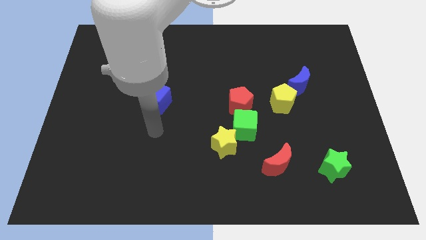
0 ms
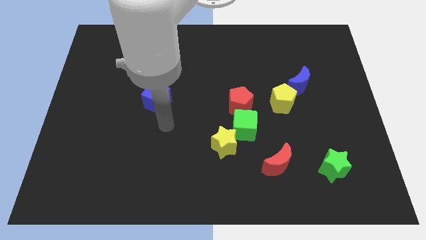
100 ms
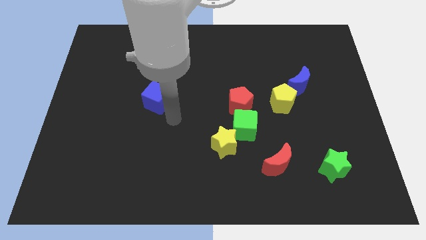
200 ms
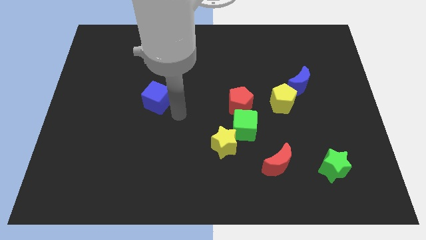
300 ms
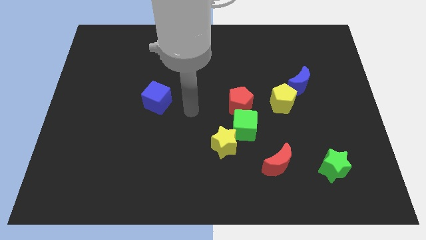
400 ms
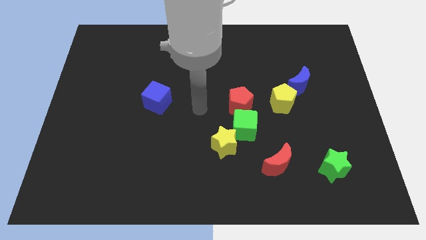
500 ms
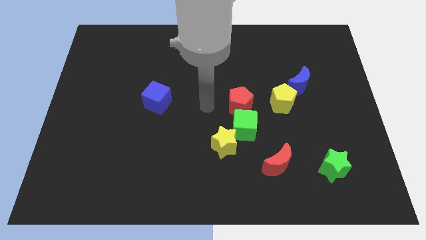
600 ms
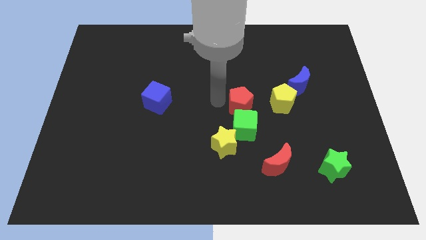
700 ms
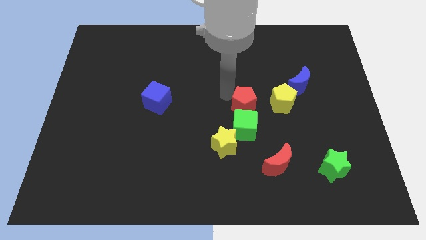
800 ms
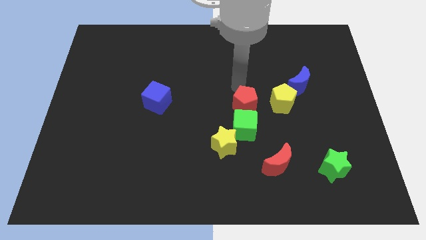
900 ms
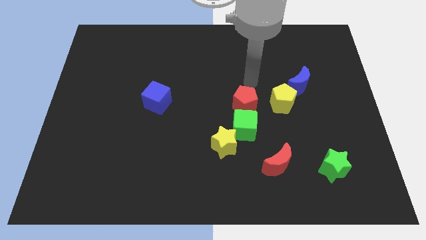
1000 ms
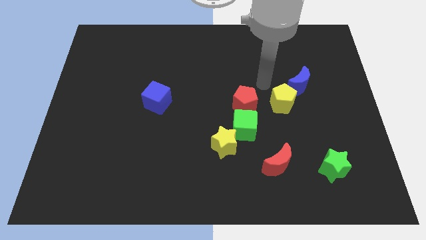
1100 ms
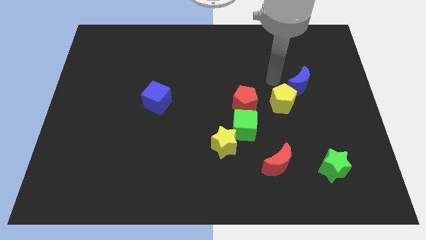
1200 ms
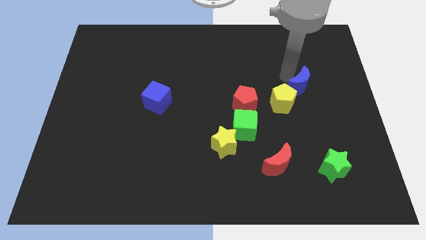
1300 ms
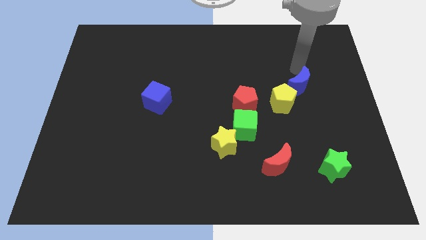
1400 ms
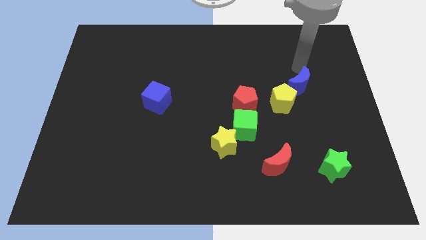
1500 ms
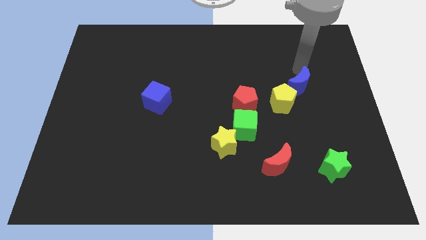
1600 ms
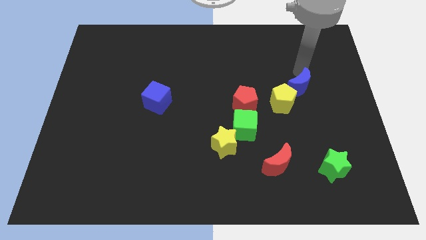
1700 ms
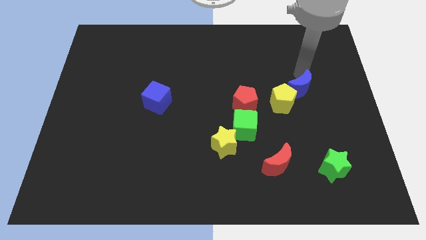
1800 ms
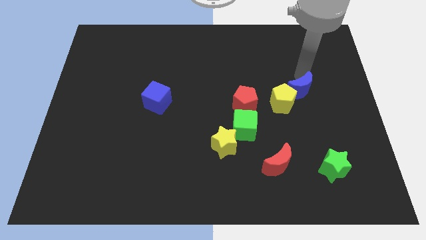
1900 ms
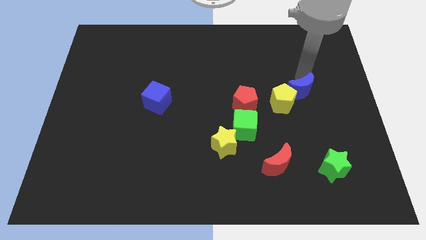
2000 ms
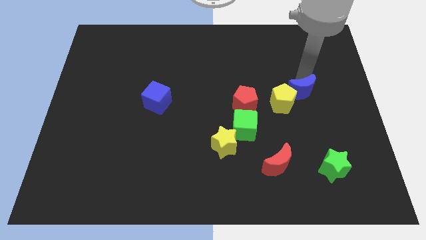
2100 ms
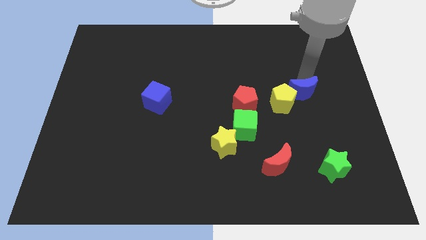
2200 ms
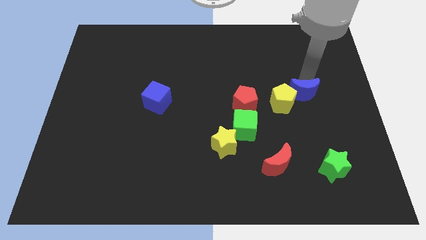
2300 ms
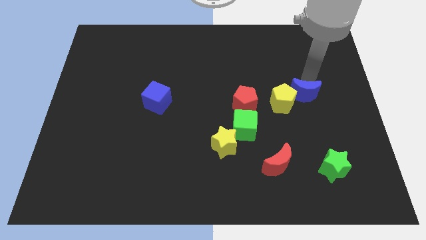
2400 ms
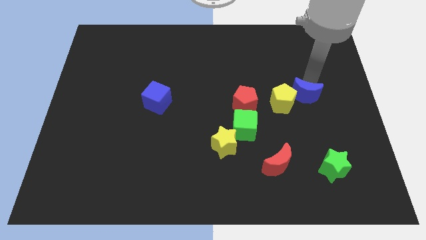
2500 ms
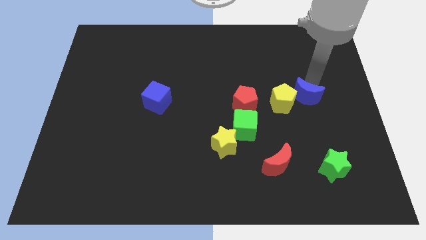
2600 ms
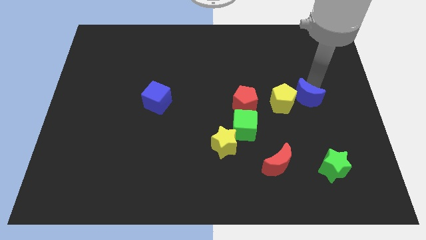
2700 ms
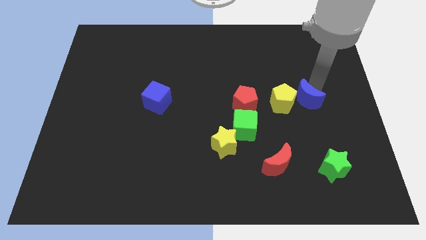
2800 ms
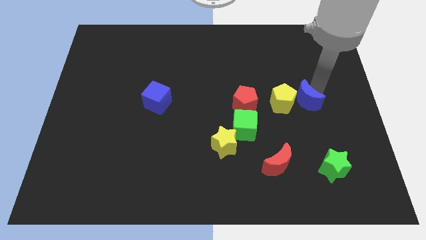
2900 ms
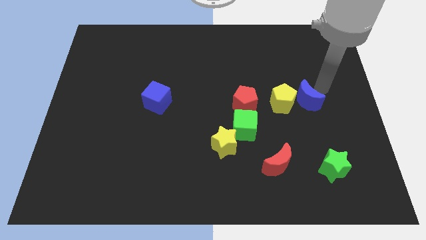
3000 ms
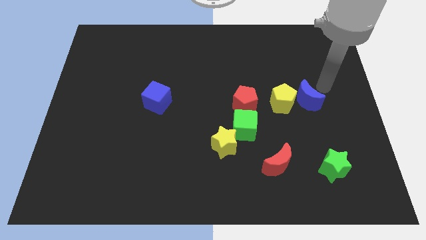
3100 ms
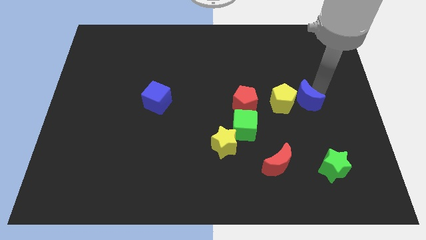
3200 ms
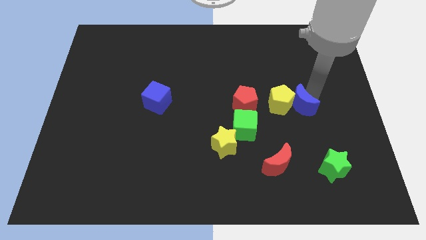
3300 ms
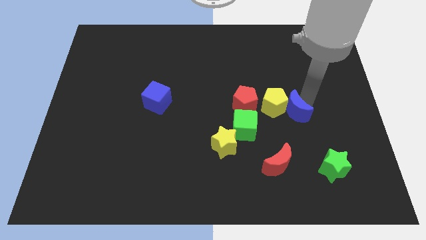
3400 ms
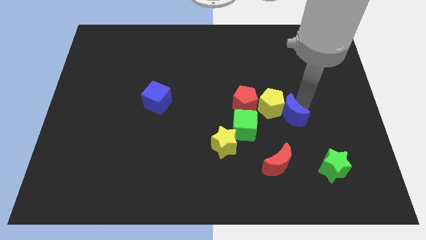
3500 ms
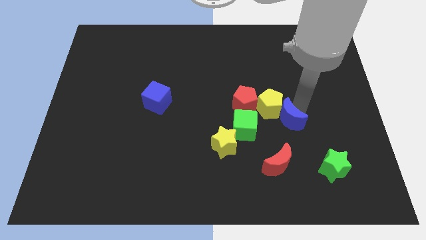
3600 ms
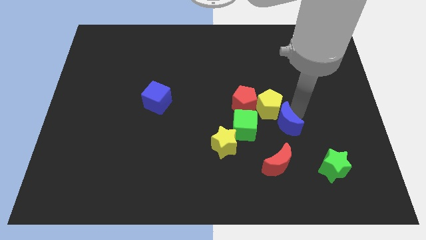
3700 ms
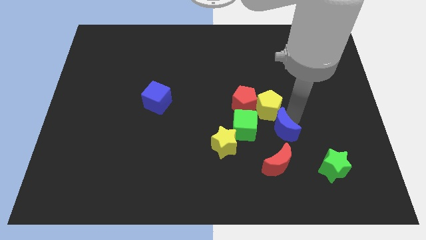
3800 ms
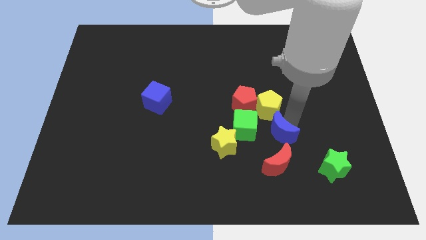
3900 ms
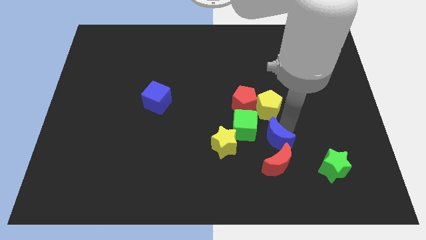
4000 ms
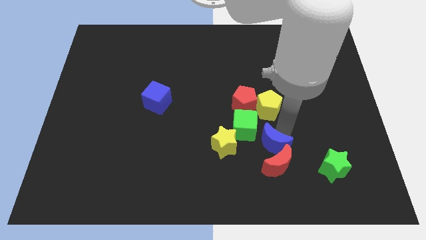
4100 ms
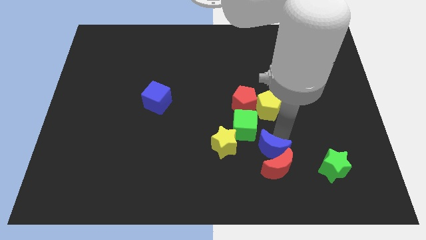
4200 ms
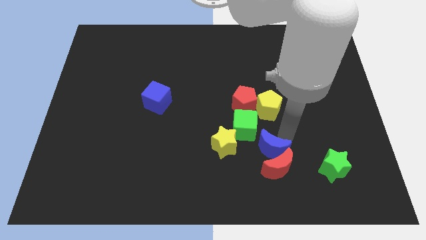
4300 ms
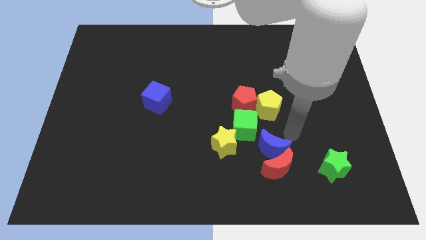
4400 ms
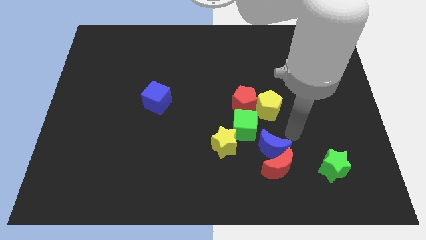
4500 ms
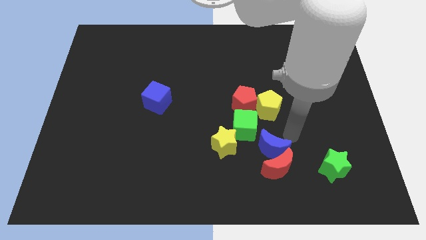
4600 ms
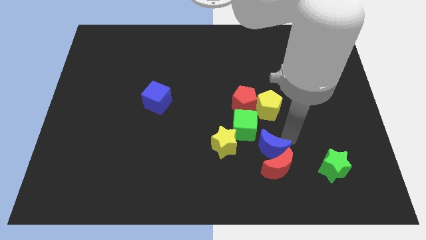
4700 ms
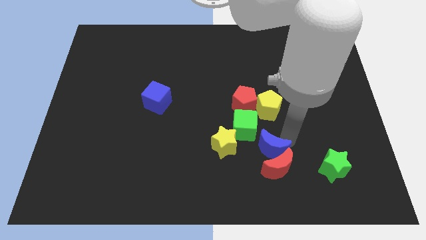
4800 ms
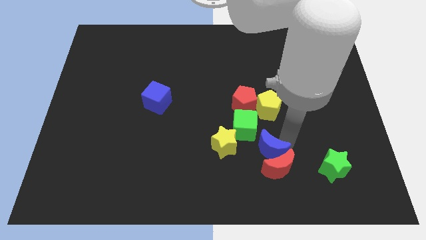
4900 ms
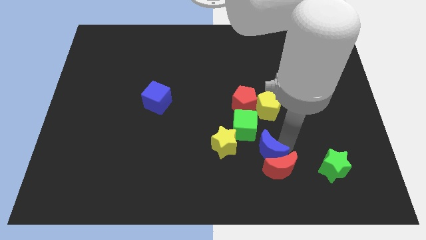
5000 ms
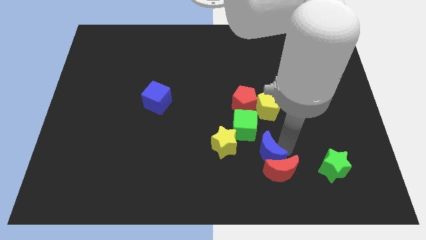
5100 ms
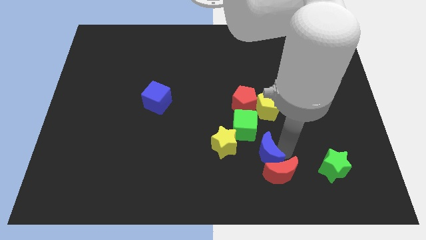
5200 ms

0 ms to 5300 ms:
push the blue moon to the bottom right side of the yellow star
